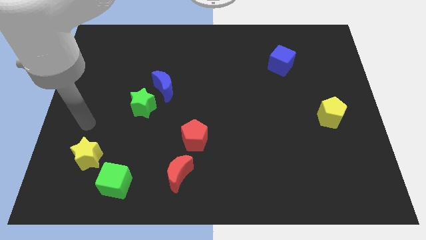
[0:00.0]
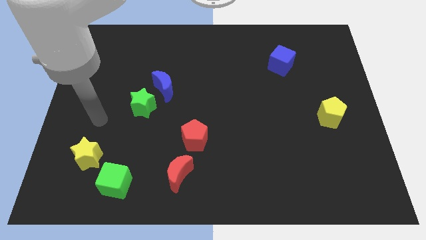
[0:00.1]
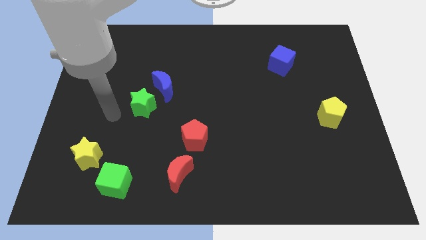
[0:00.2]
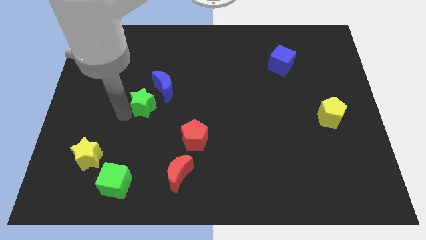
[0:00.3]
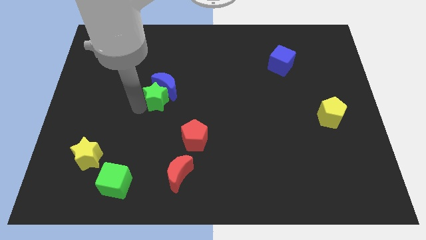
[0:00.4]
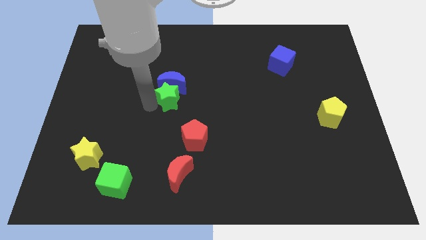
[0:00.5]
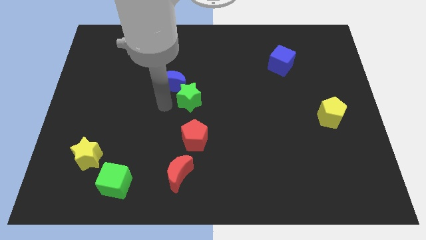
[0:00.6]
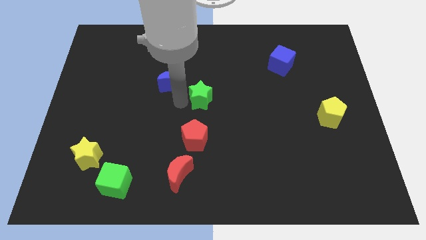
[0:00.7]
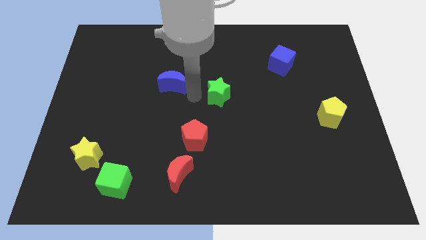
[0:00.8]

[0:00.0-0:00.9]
pull the blue moon apart from the green star

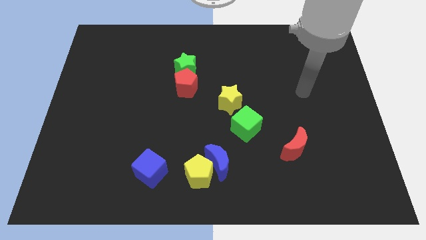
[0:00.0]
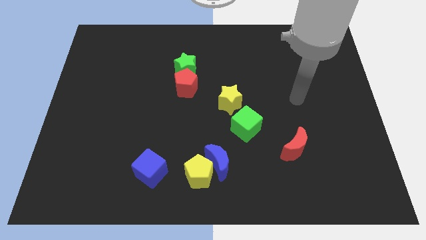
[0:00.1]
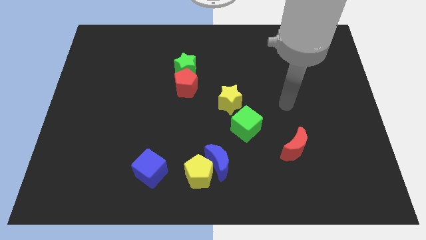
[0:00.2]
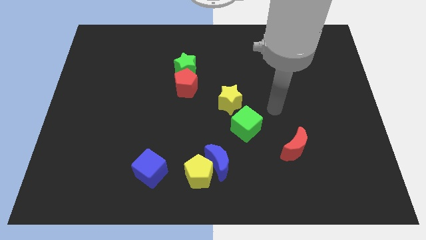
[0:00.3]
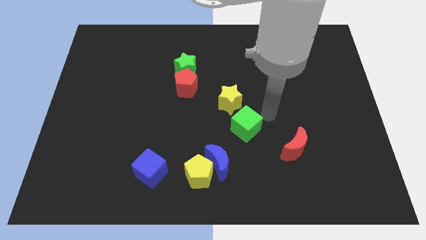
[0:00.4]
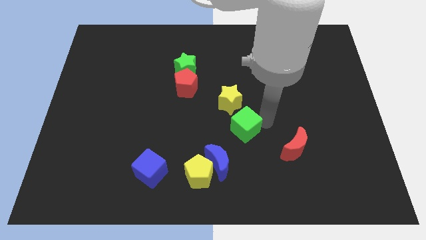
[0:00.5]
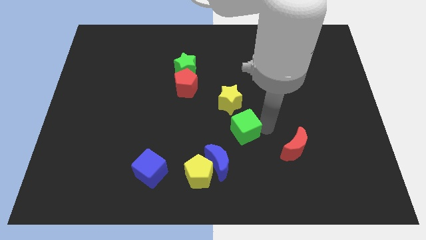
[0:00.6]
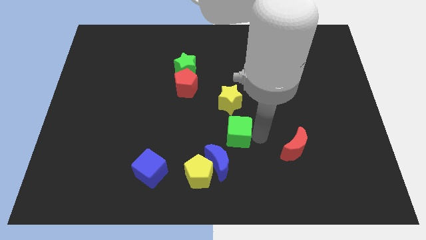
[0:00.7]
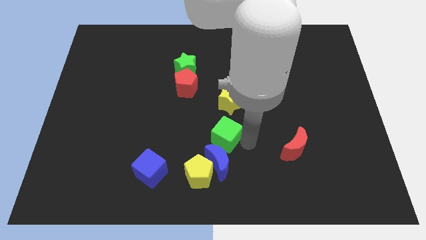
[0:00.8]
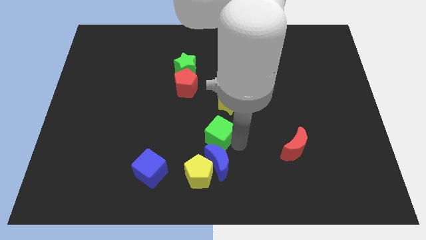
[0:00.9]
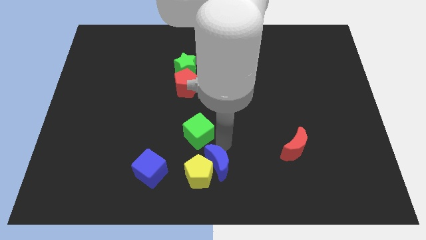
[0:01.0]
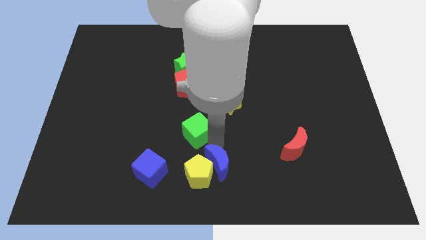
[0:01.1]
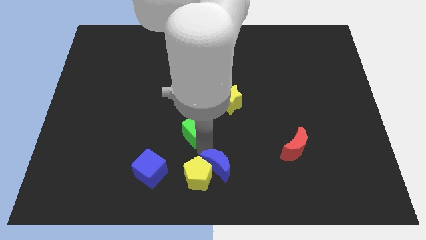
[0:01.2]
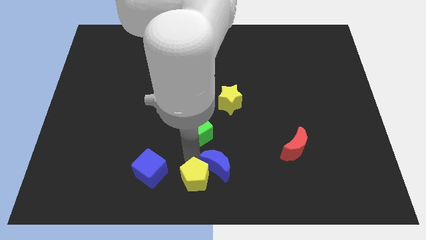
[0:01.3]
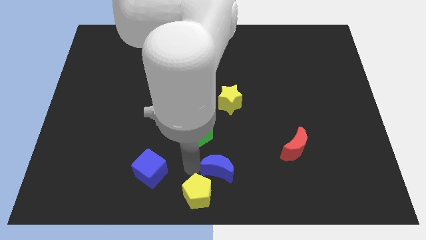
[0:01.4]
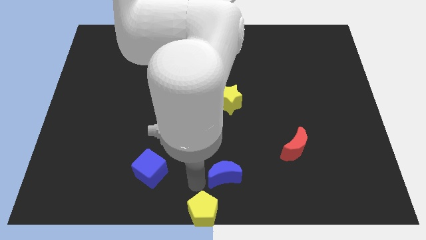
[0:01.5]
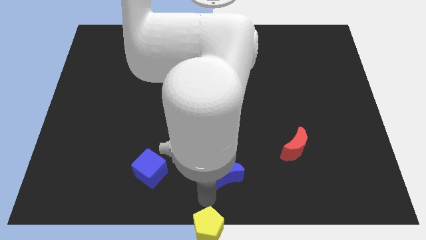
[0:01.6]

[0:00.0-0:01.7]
move the blue moon away from the yellow pentagon

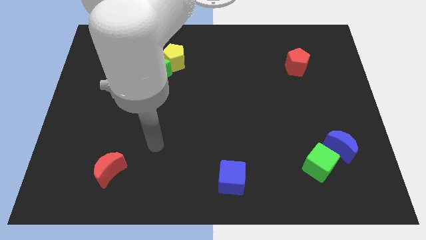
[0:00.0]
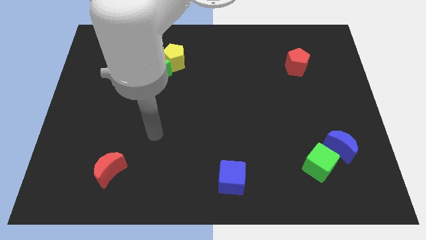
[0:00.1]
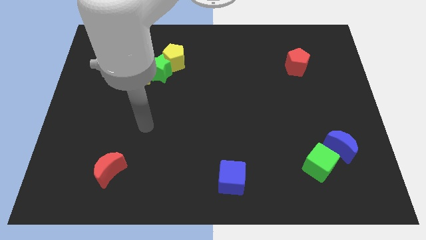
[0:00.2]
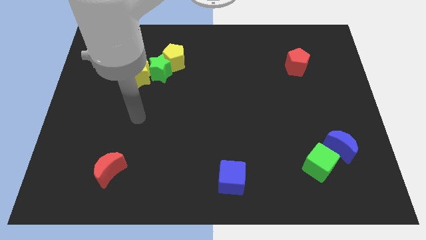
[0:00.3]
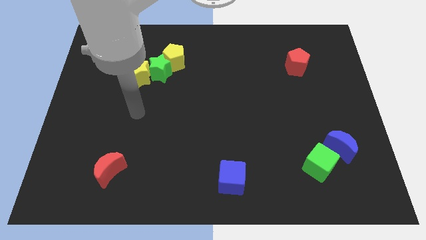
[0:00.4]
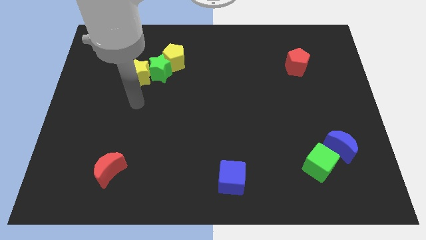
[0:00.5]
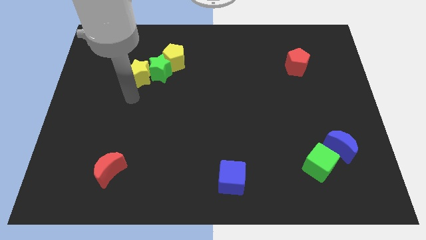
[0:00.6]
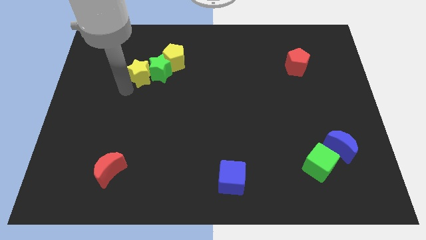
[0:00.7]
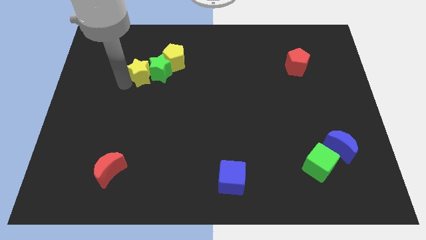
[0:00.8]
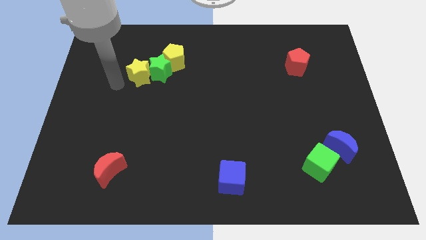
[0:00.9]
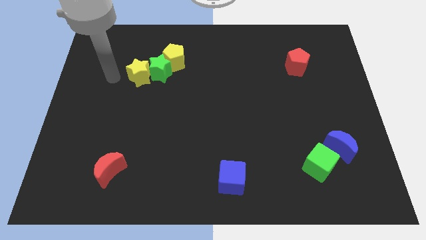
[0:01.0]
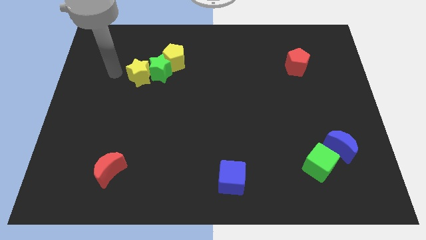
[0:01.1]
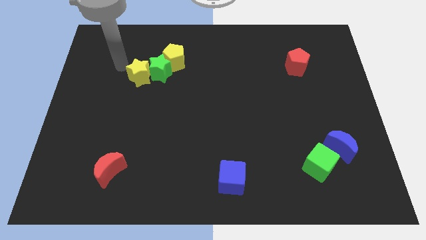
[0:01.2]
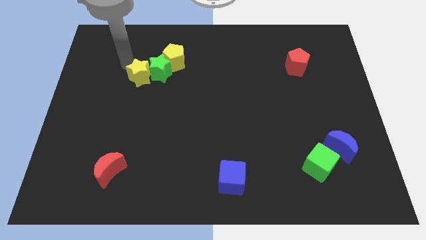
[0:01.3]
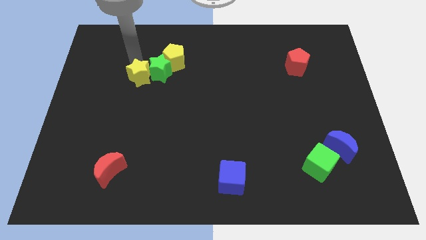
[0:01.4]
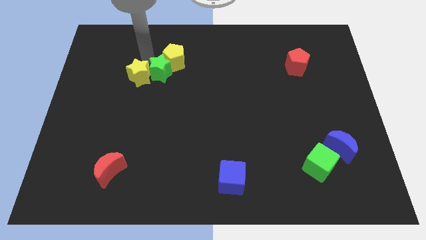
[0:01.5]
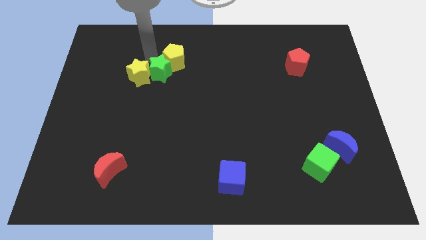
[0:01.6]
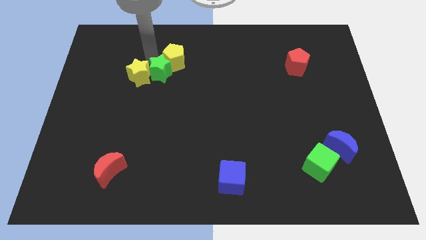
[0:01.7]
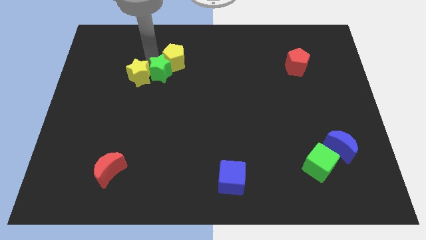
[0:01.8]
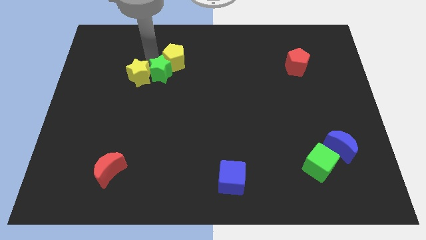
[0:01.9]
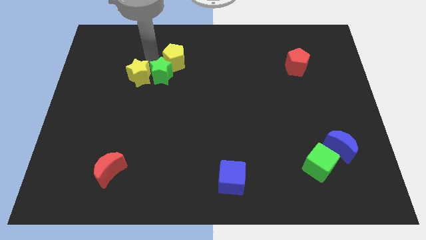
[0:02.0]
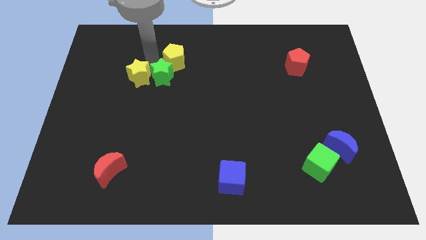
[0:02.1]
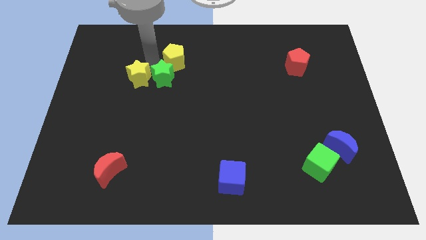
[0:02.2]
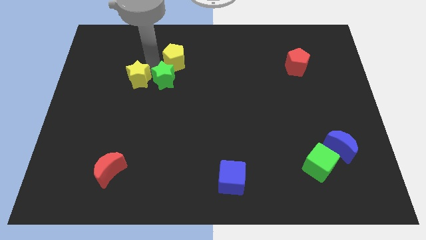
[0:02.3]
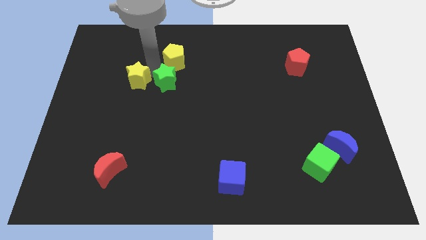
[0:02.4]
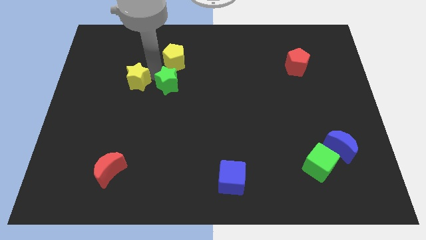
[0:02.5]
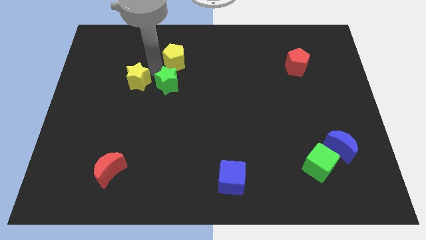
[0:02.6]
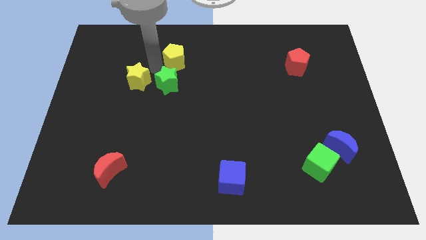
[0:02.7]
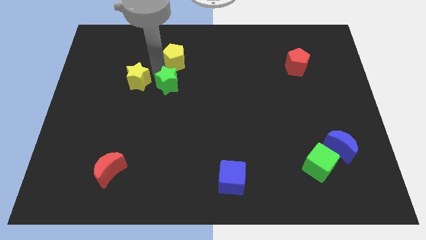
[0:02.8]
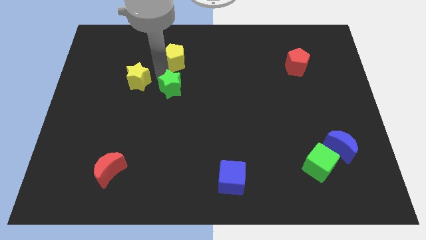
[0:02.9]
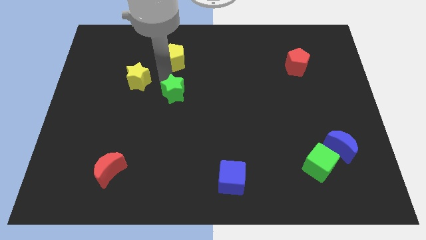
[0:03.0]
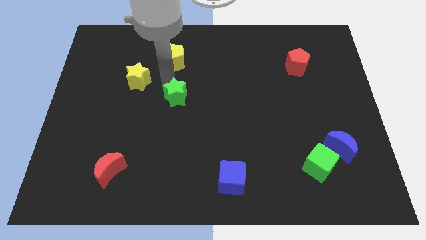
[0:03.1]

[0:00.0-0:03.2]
pull the green star apart from the yellow pentagon and yellow star

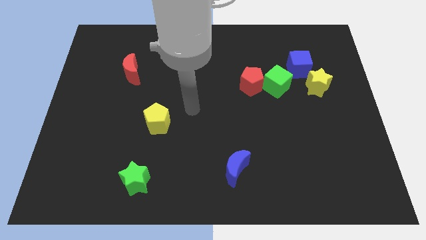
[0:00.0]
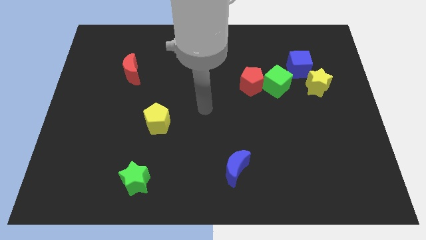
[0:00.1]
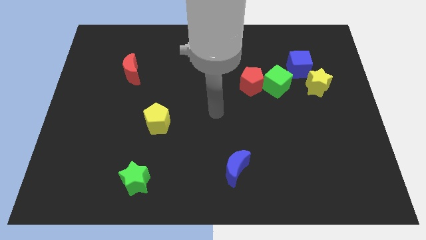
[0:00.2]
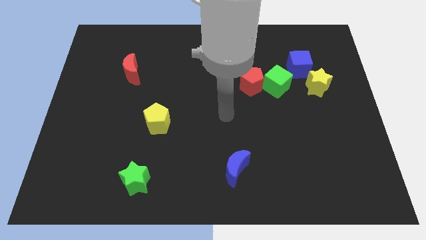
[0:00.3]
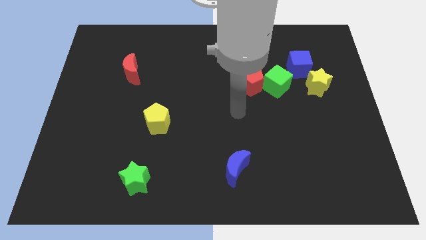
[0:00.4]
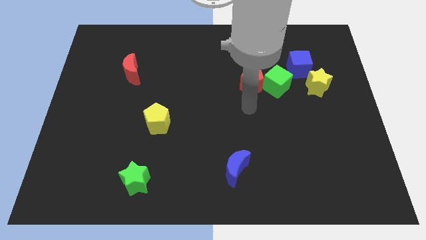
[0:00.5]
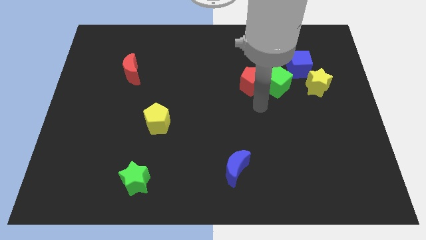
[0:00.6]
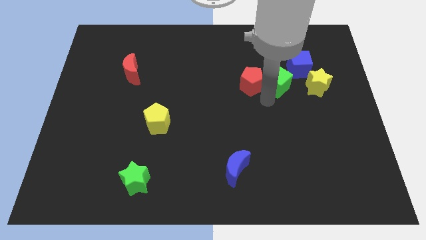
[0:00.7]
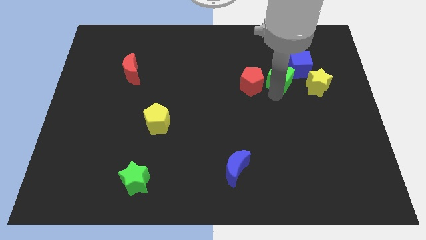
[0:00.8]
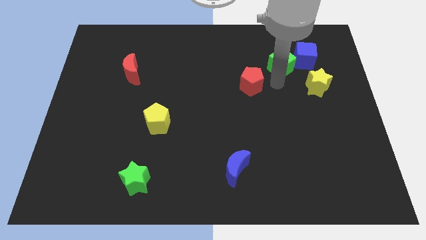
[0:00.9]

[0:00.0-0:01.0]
move the red pentagon away from the green cube

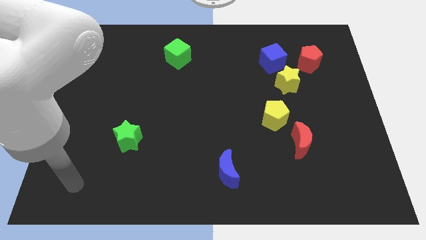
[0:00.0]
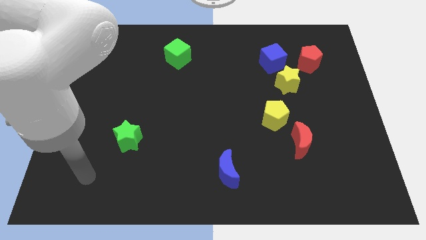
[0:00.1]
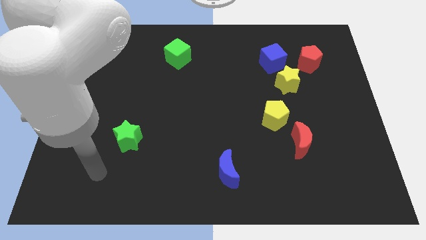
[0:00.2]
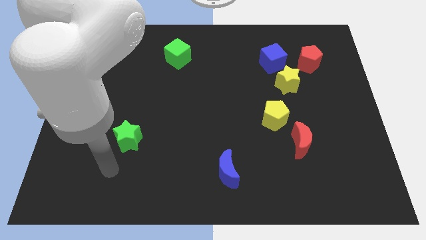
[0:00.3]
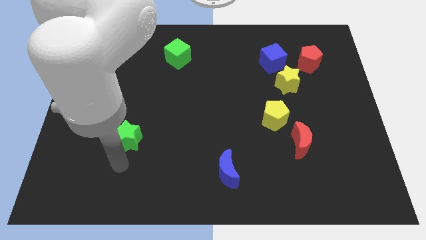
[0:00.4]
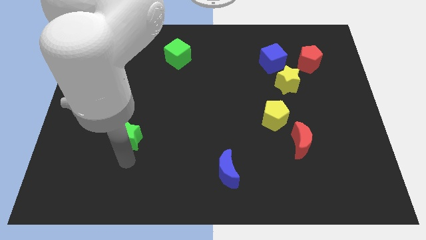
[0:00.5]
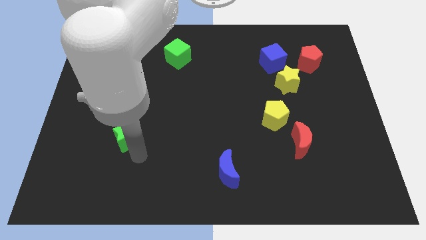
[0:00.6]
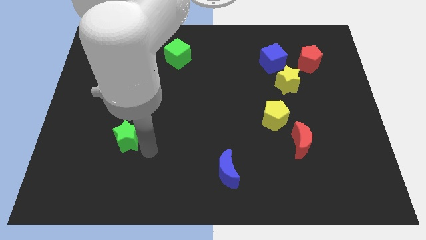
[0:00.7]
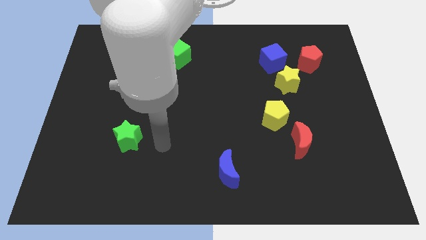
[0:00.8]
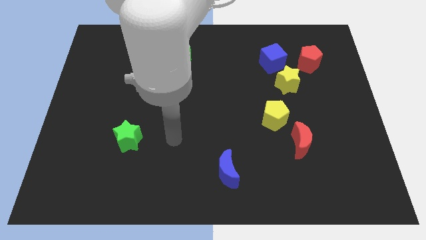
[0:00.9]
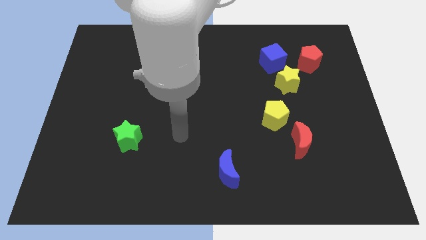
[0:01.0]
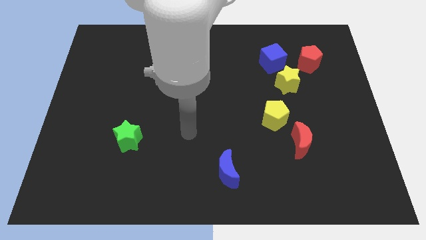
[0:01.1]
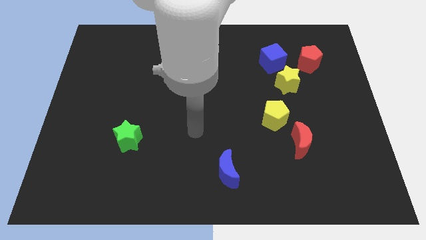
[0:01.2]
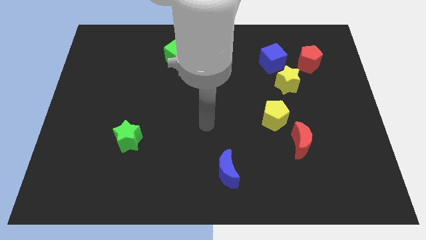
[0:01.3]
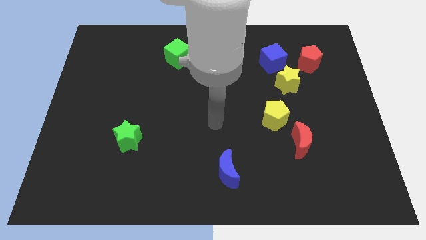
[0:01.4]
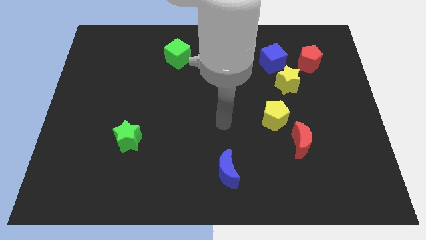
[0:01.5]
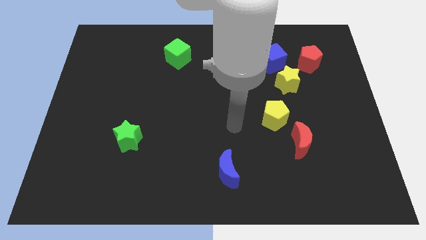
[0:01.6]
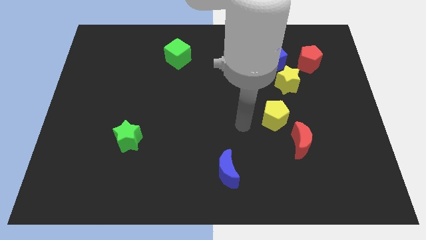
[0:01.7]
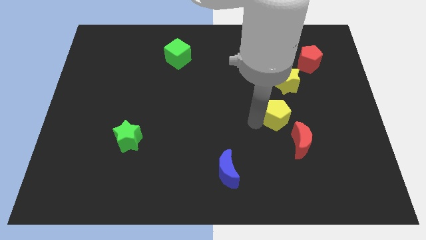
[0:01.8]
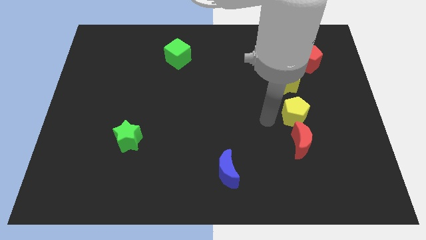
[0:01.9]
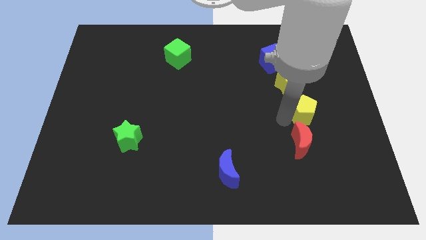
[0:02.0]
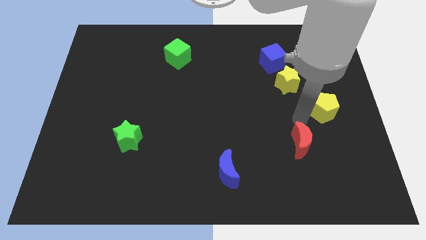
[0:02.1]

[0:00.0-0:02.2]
pull the red moon apart from the yellow pentagon

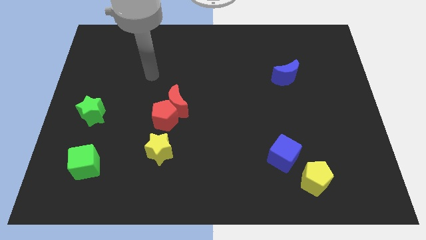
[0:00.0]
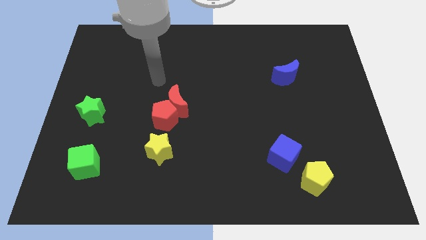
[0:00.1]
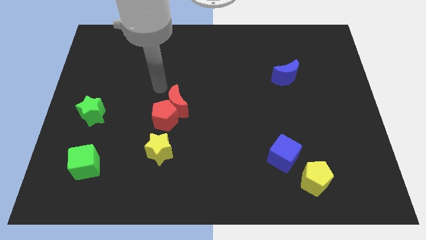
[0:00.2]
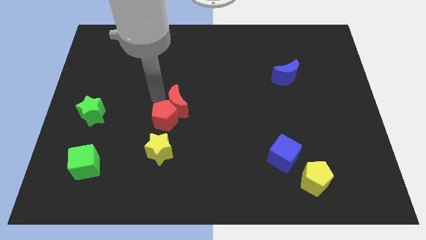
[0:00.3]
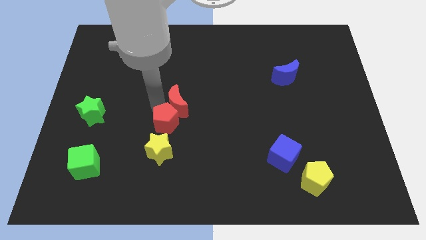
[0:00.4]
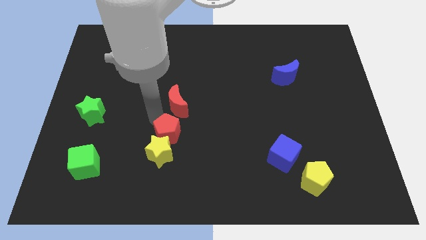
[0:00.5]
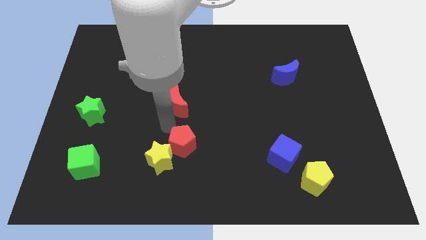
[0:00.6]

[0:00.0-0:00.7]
move the red moon away from the red pentagon
